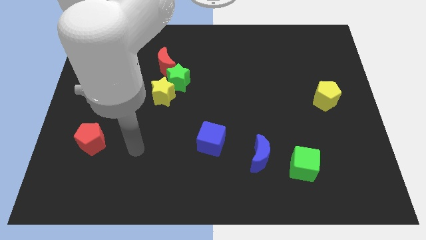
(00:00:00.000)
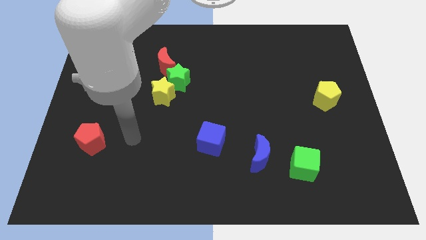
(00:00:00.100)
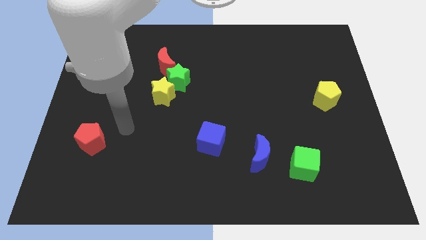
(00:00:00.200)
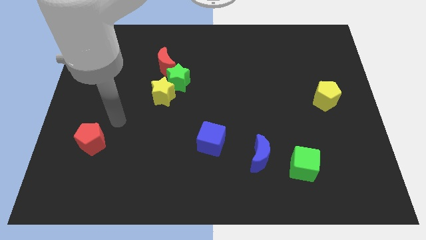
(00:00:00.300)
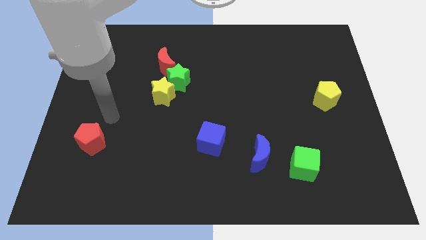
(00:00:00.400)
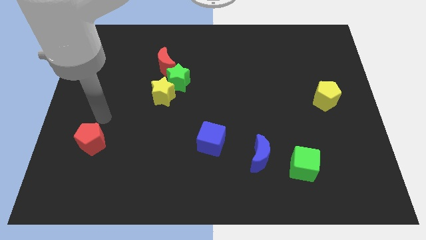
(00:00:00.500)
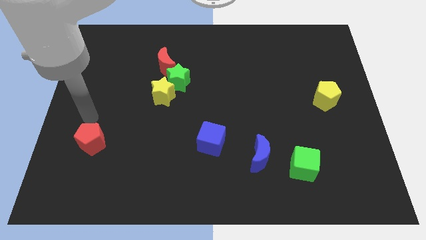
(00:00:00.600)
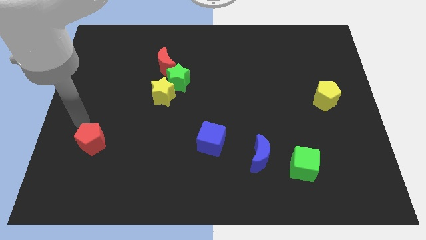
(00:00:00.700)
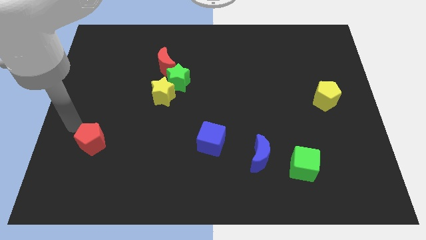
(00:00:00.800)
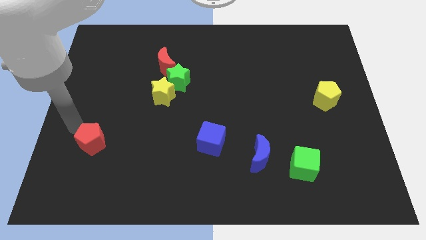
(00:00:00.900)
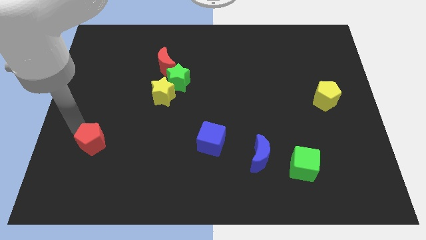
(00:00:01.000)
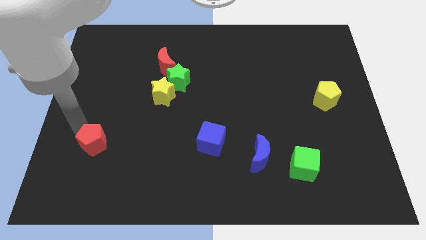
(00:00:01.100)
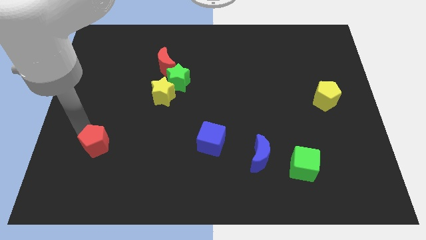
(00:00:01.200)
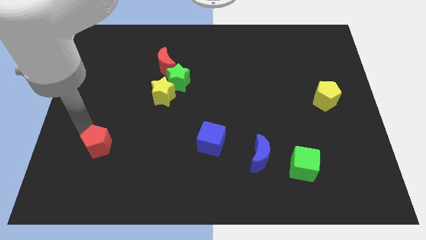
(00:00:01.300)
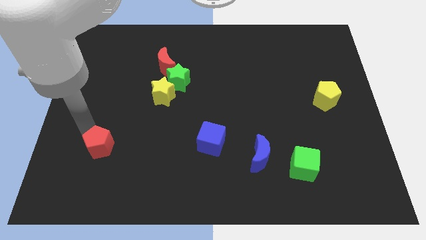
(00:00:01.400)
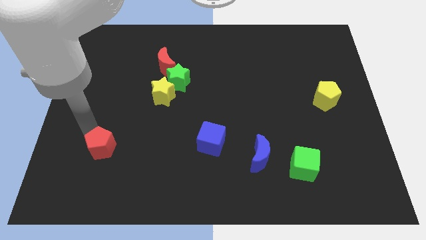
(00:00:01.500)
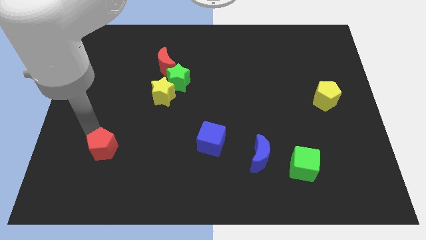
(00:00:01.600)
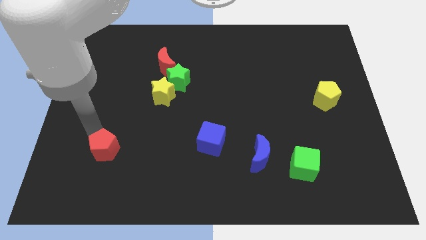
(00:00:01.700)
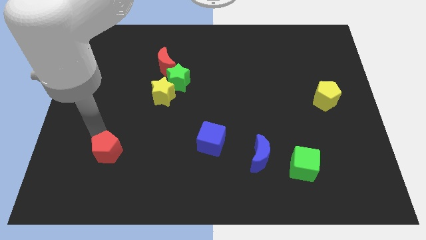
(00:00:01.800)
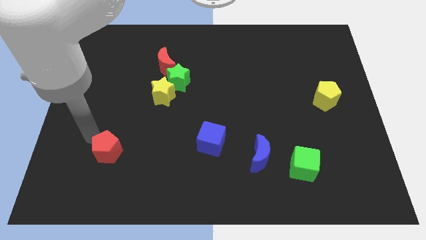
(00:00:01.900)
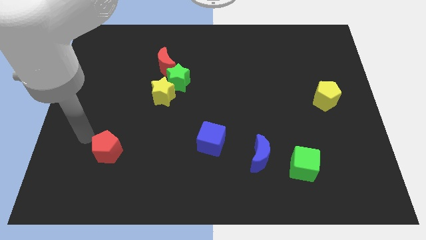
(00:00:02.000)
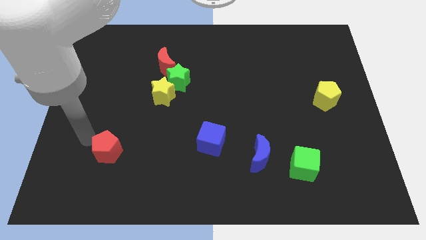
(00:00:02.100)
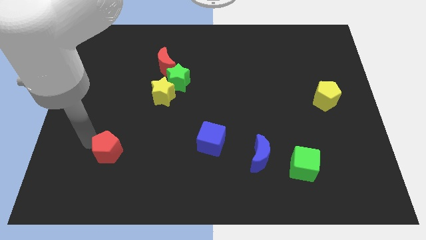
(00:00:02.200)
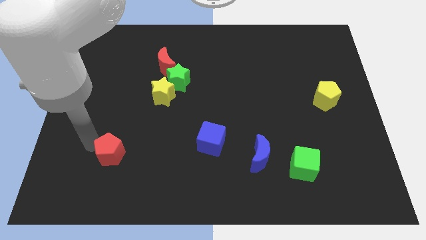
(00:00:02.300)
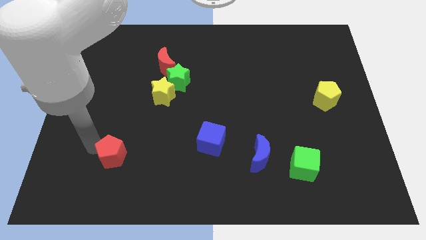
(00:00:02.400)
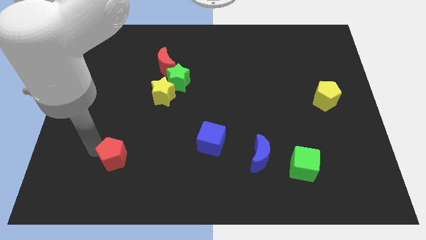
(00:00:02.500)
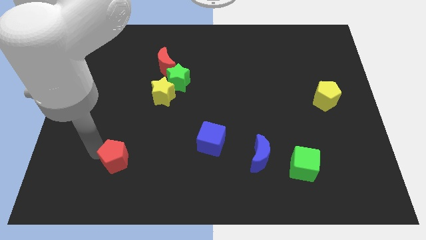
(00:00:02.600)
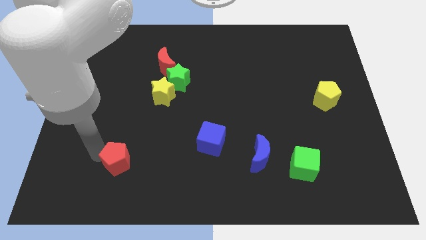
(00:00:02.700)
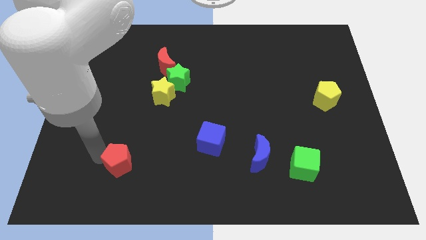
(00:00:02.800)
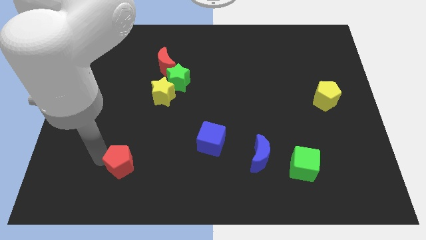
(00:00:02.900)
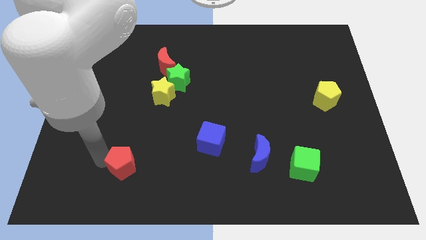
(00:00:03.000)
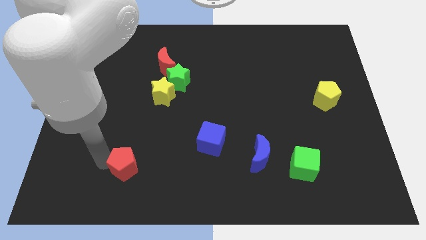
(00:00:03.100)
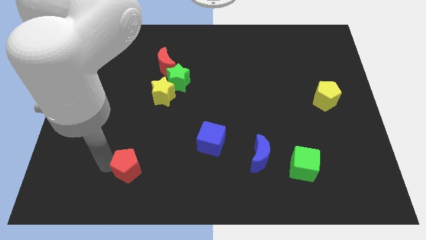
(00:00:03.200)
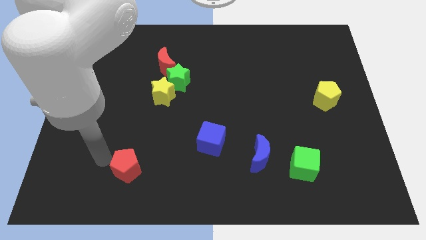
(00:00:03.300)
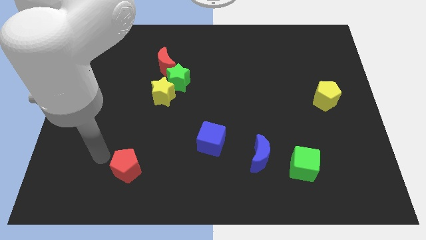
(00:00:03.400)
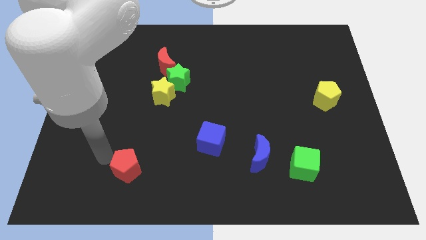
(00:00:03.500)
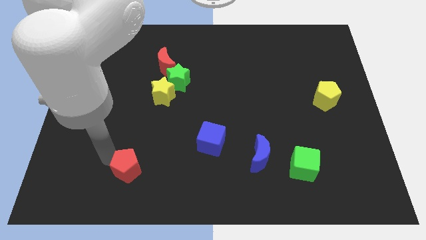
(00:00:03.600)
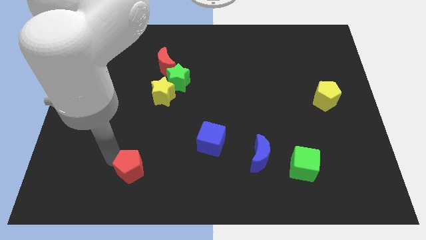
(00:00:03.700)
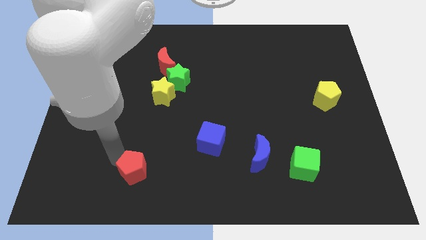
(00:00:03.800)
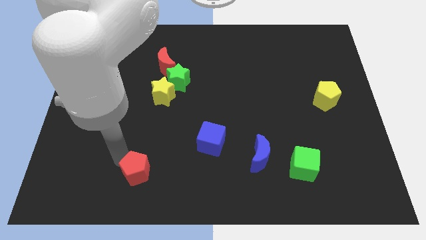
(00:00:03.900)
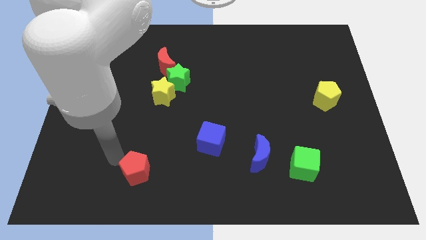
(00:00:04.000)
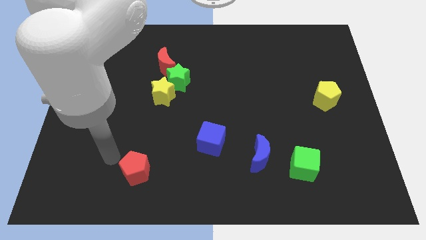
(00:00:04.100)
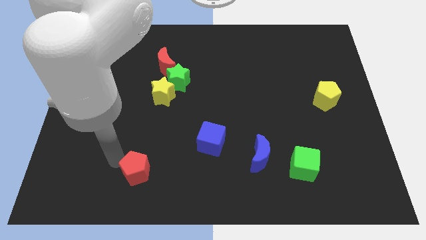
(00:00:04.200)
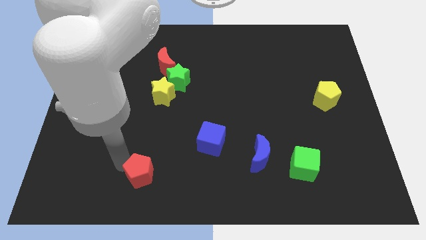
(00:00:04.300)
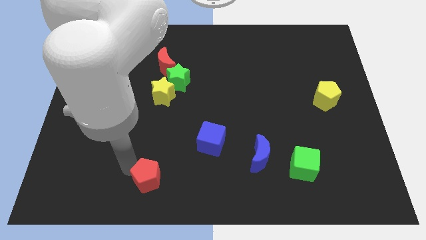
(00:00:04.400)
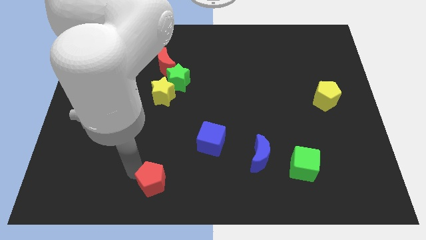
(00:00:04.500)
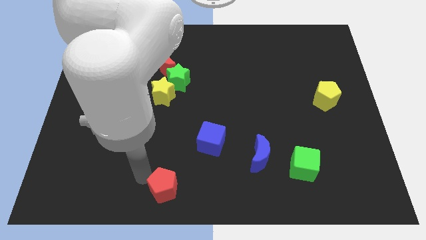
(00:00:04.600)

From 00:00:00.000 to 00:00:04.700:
move the red pentagon to the bottom side

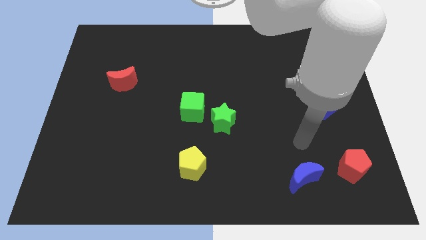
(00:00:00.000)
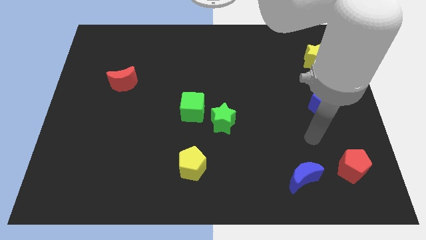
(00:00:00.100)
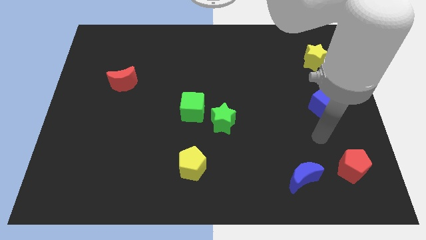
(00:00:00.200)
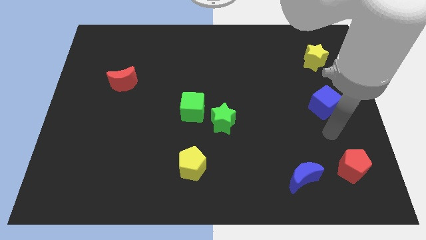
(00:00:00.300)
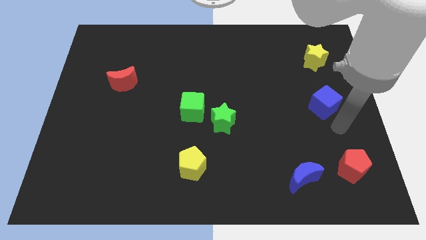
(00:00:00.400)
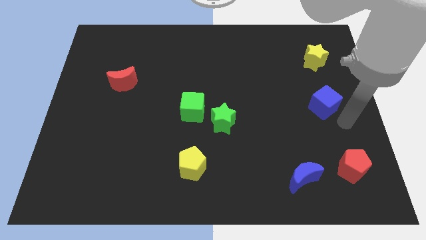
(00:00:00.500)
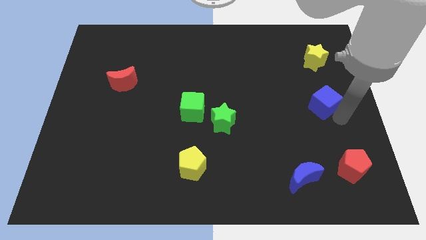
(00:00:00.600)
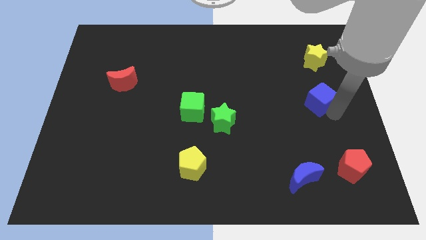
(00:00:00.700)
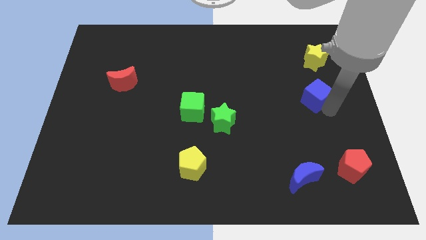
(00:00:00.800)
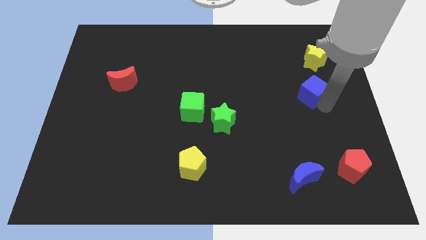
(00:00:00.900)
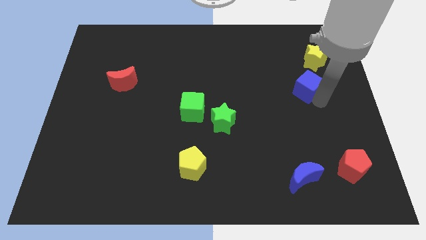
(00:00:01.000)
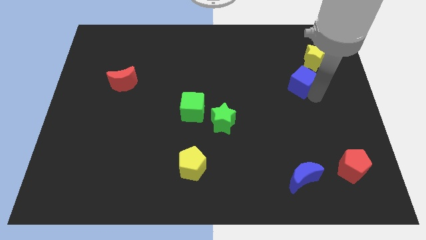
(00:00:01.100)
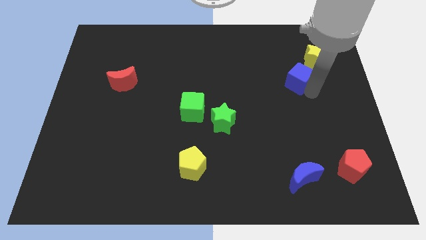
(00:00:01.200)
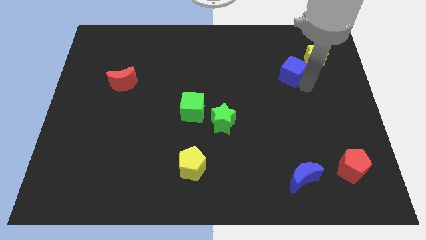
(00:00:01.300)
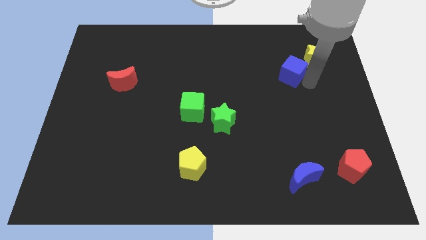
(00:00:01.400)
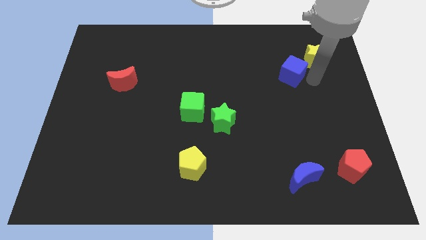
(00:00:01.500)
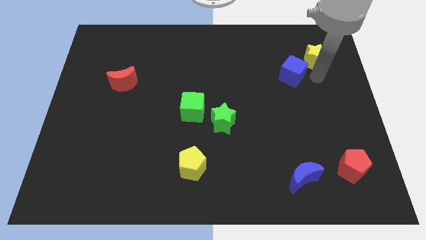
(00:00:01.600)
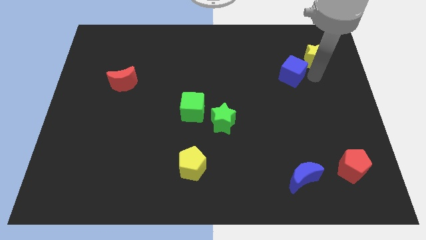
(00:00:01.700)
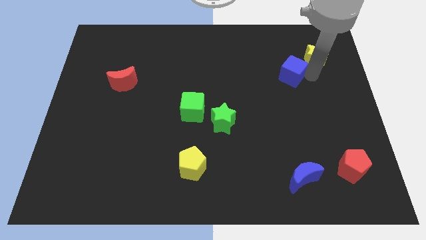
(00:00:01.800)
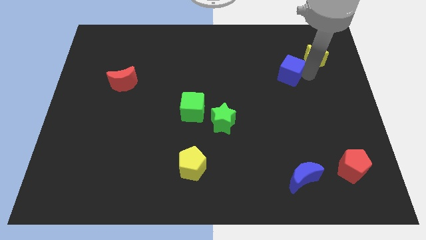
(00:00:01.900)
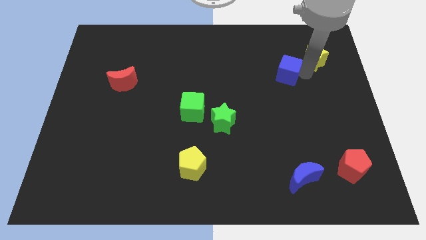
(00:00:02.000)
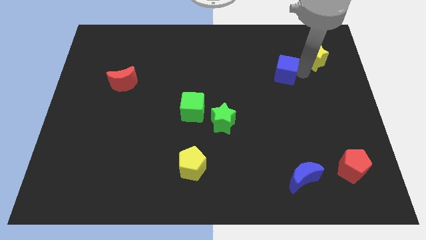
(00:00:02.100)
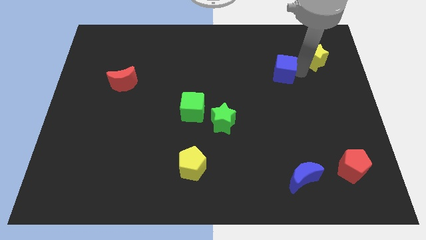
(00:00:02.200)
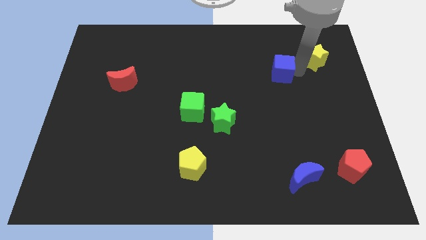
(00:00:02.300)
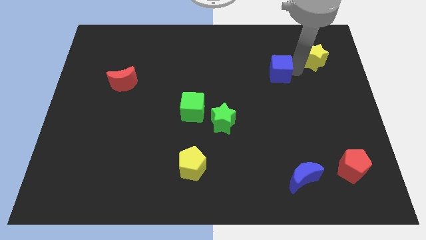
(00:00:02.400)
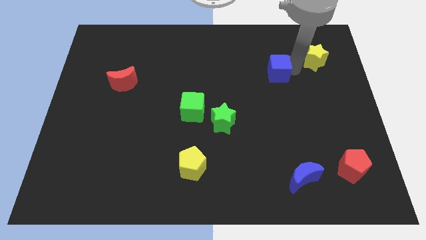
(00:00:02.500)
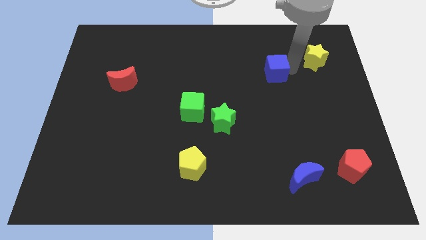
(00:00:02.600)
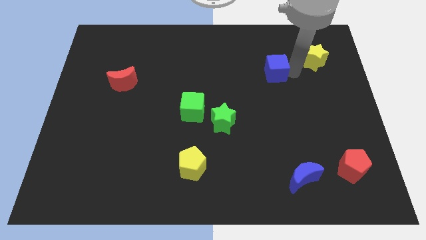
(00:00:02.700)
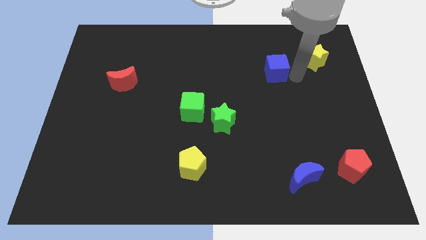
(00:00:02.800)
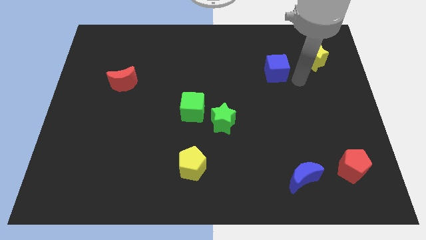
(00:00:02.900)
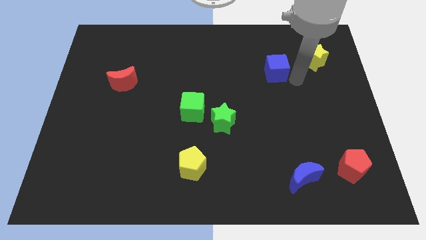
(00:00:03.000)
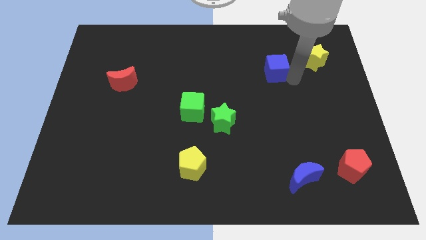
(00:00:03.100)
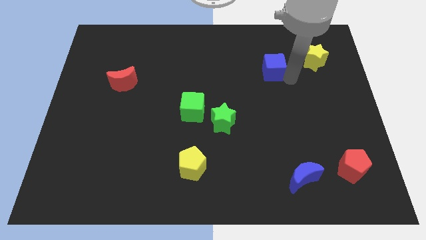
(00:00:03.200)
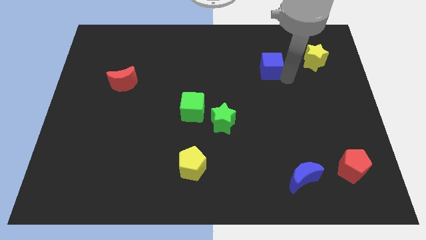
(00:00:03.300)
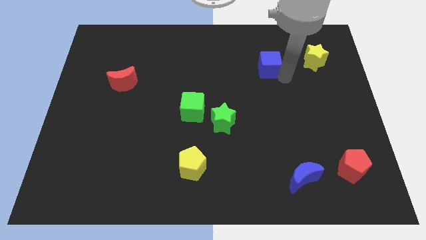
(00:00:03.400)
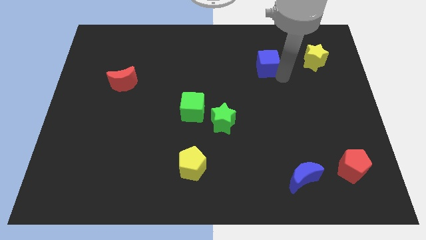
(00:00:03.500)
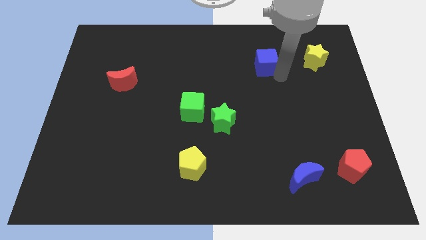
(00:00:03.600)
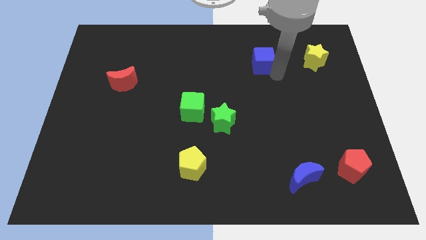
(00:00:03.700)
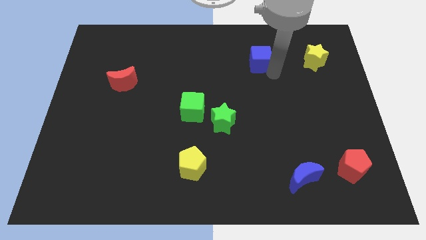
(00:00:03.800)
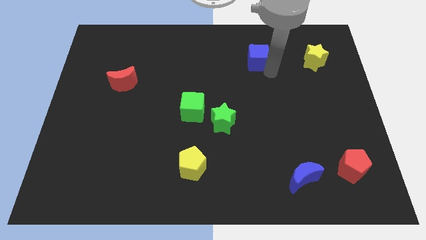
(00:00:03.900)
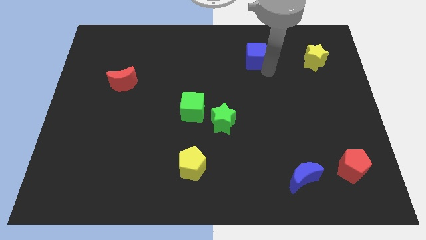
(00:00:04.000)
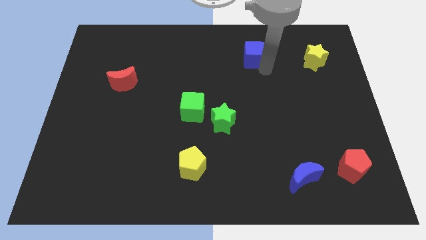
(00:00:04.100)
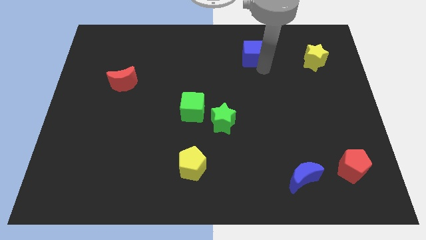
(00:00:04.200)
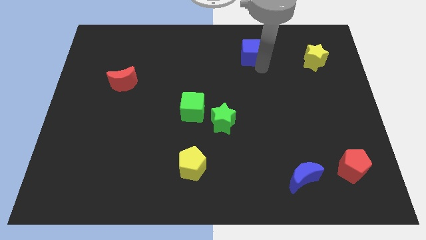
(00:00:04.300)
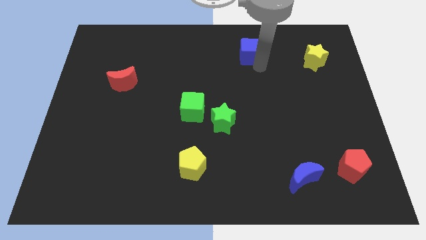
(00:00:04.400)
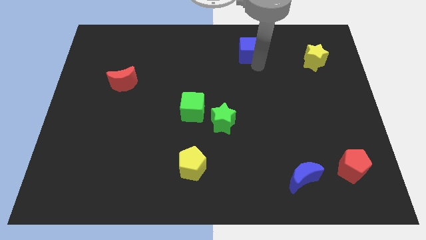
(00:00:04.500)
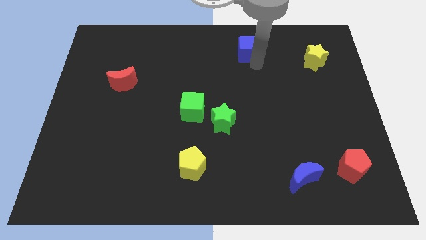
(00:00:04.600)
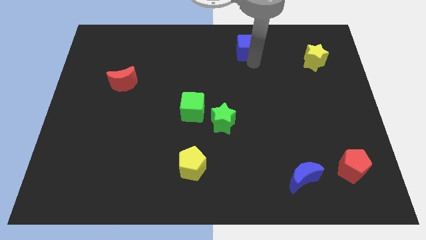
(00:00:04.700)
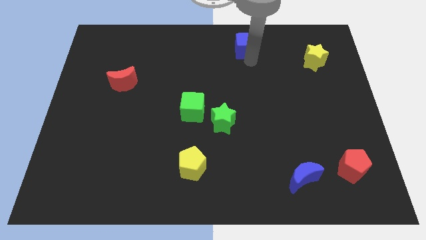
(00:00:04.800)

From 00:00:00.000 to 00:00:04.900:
slide the blue cube to the top side
